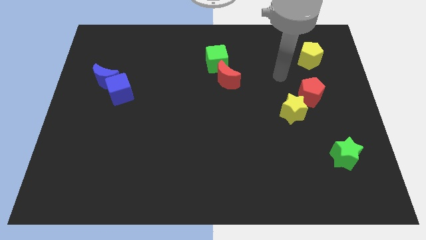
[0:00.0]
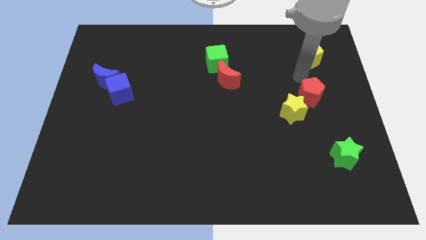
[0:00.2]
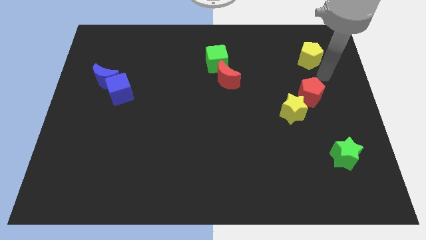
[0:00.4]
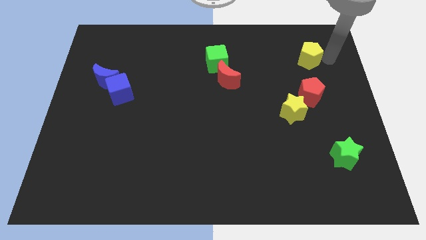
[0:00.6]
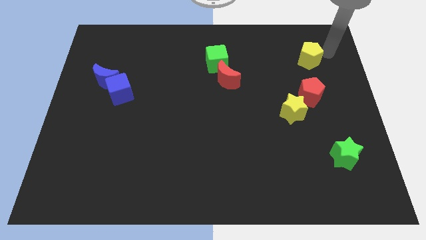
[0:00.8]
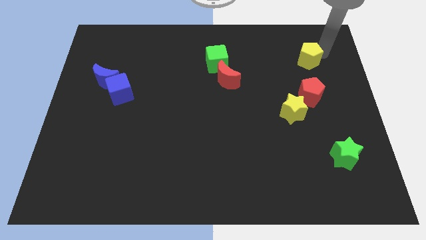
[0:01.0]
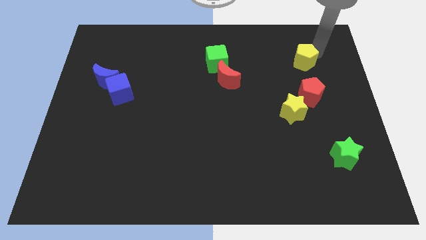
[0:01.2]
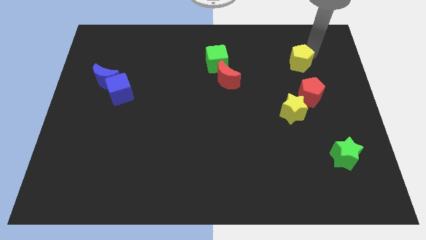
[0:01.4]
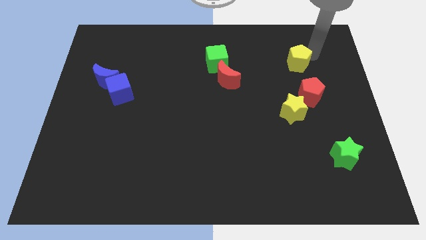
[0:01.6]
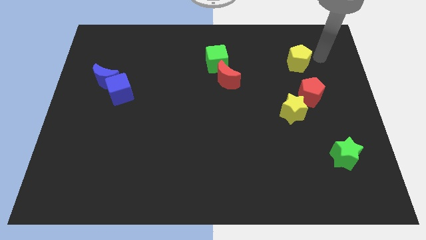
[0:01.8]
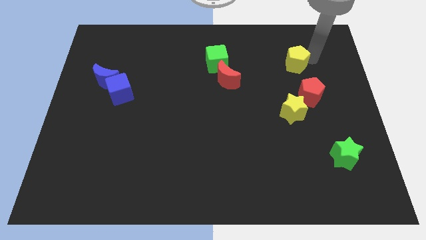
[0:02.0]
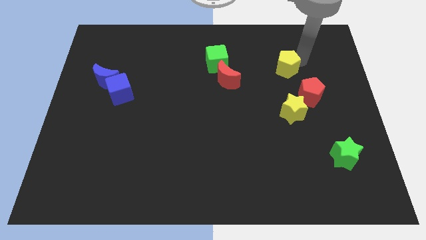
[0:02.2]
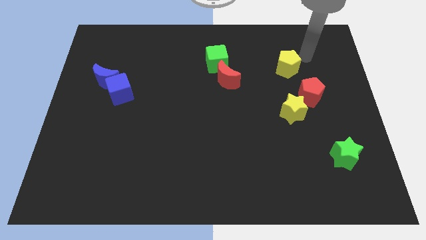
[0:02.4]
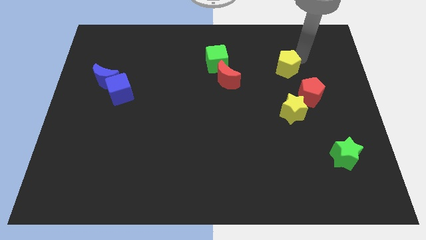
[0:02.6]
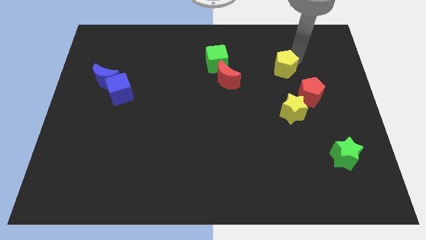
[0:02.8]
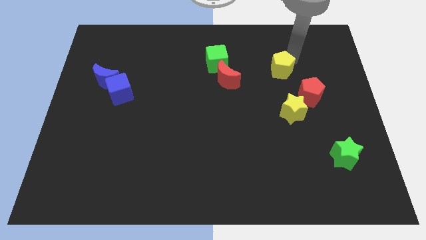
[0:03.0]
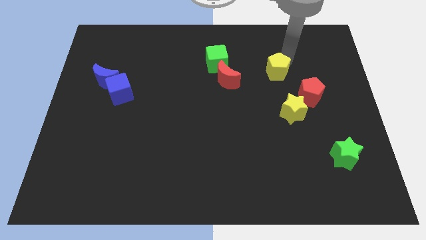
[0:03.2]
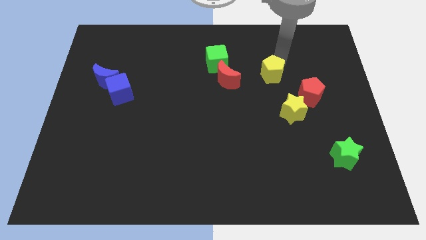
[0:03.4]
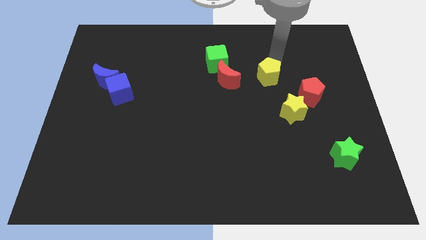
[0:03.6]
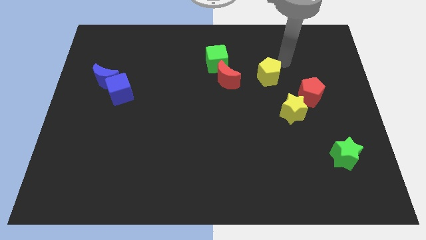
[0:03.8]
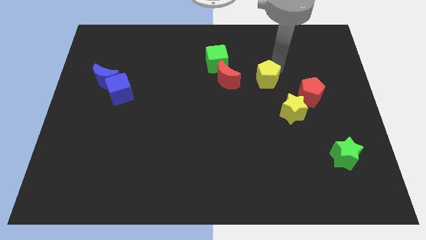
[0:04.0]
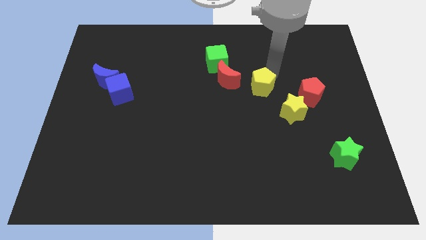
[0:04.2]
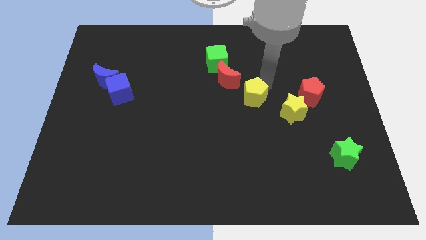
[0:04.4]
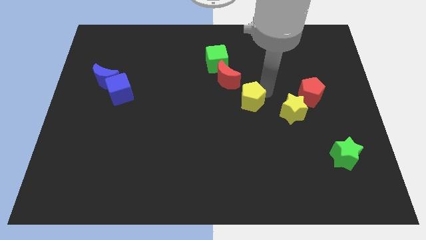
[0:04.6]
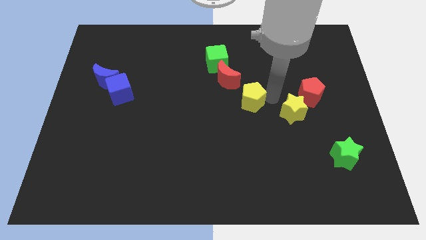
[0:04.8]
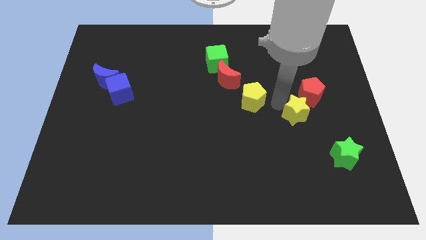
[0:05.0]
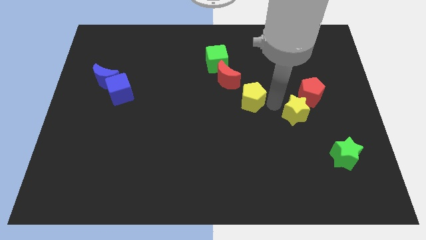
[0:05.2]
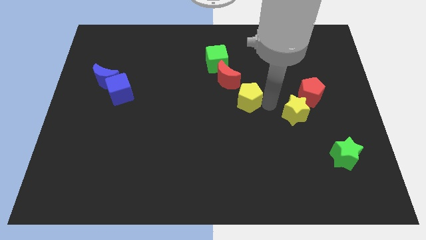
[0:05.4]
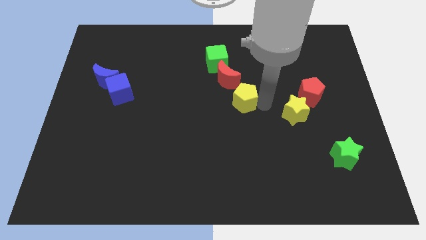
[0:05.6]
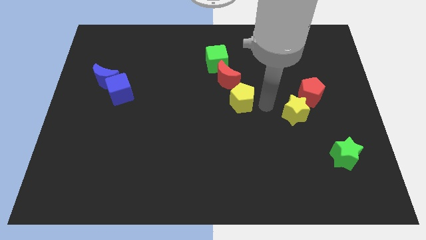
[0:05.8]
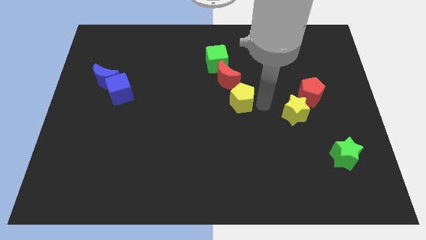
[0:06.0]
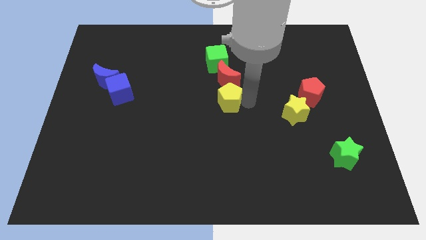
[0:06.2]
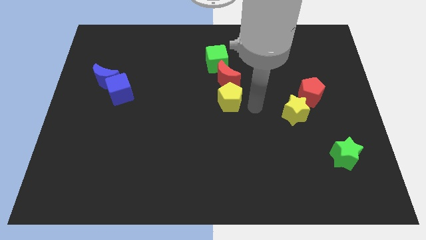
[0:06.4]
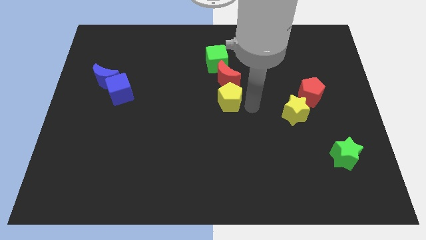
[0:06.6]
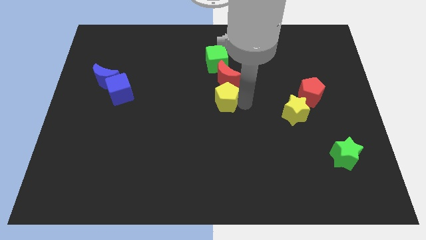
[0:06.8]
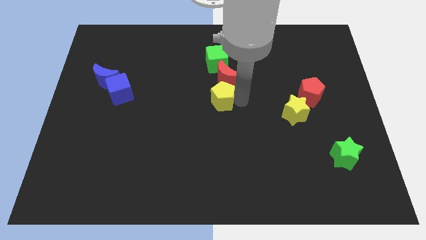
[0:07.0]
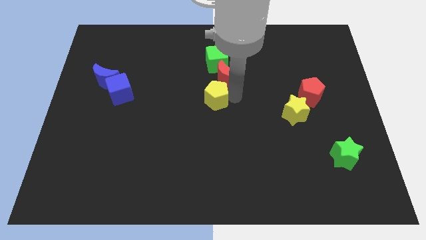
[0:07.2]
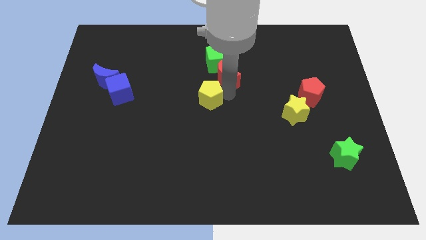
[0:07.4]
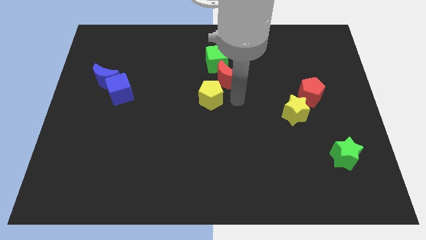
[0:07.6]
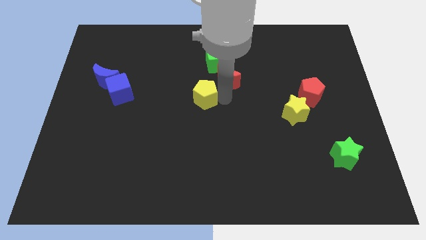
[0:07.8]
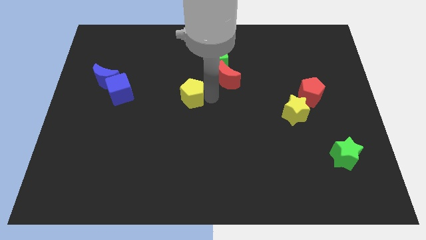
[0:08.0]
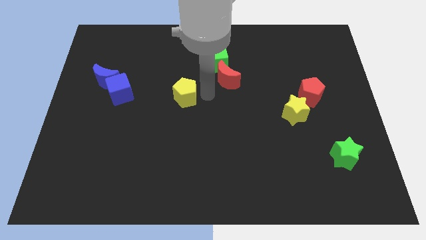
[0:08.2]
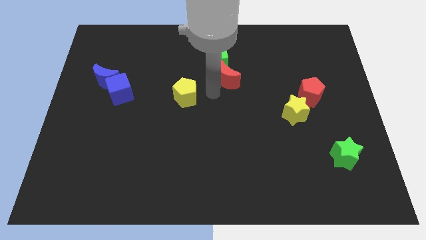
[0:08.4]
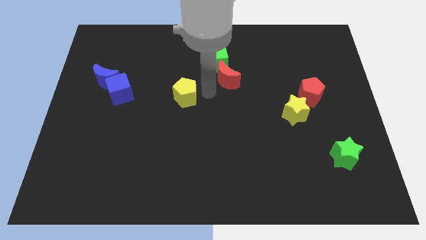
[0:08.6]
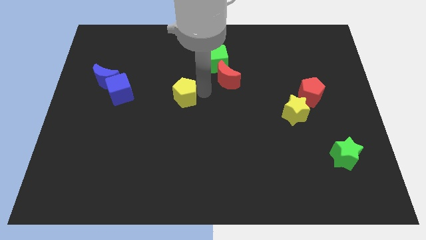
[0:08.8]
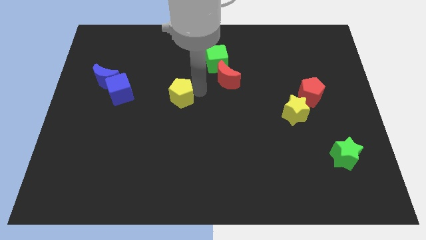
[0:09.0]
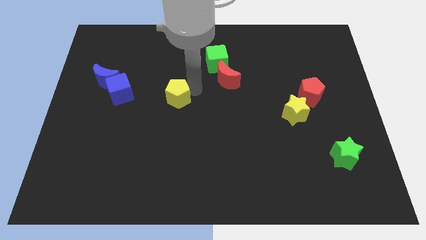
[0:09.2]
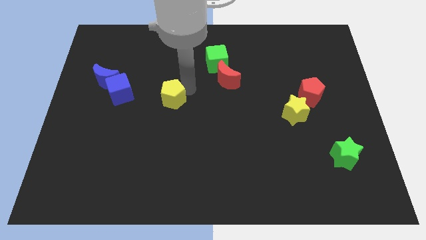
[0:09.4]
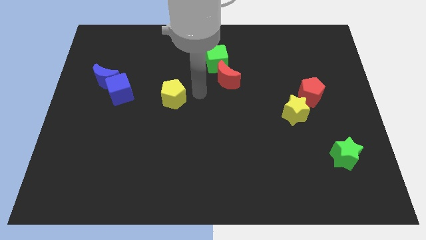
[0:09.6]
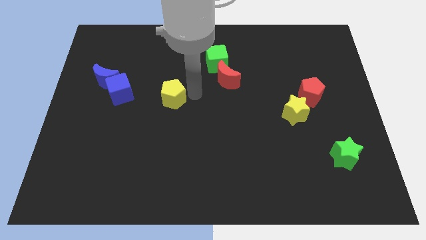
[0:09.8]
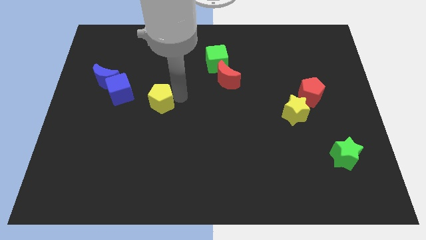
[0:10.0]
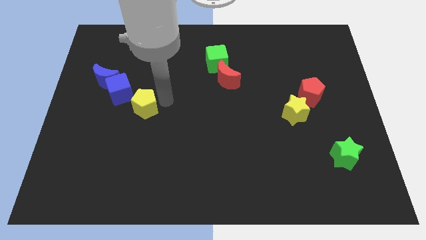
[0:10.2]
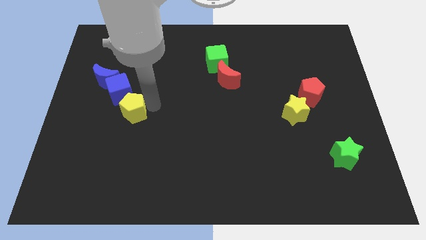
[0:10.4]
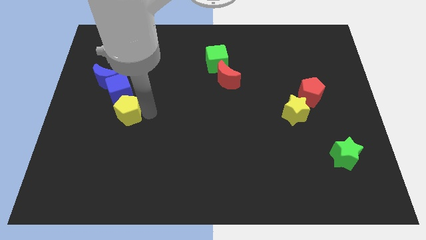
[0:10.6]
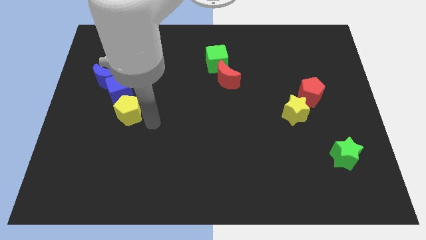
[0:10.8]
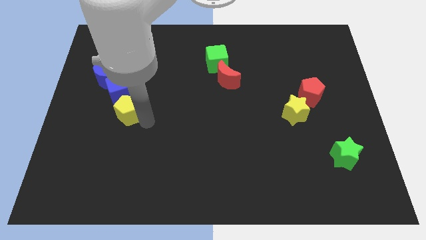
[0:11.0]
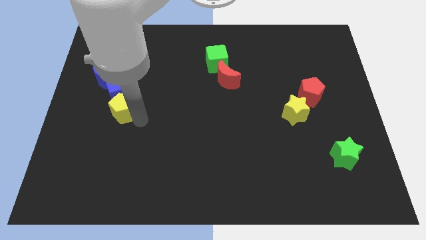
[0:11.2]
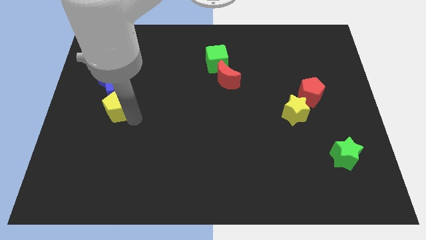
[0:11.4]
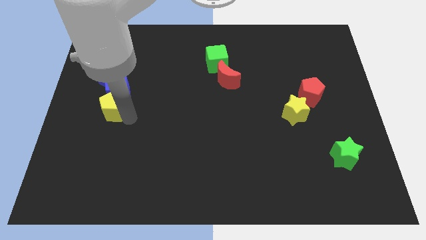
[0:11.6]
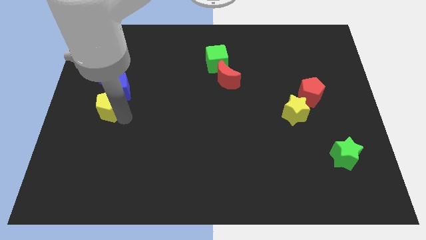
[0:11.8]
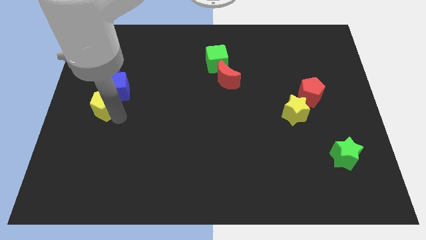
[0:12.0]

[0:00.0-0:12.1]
put the yellow pentagon to the left side
